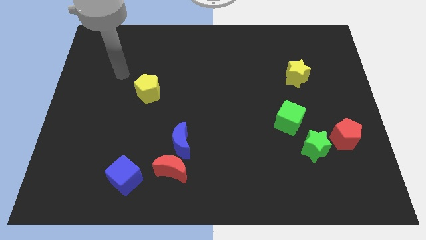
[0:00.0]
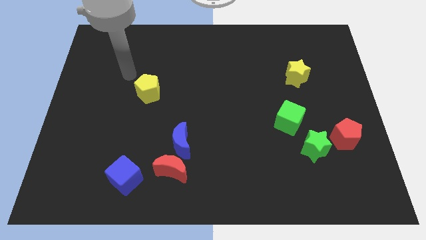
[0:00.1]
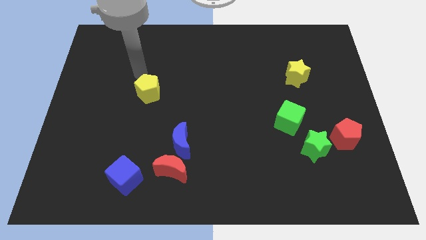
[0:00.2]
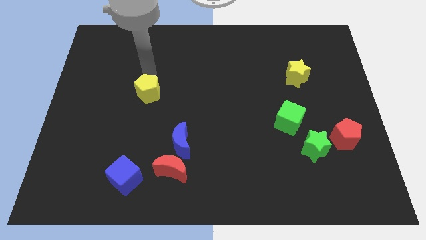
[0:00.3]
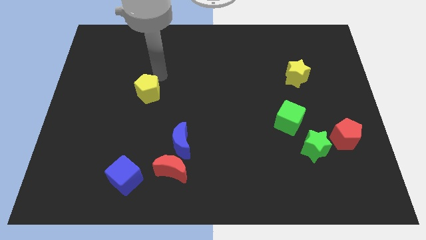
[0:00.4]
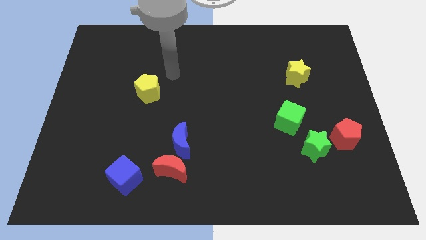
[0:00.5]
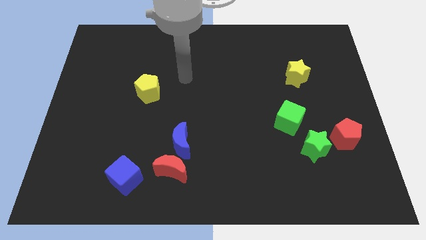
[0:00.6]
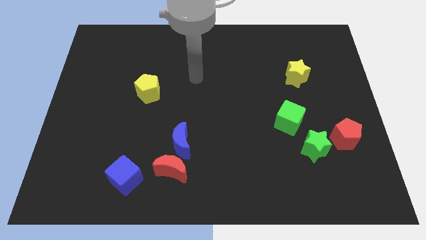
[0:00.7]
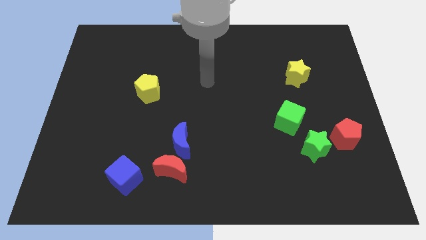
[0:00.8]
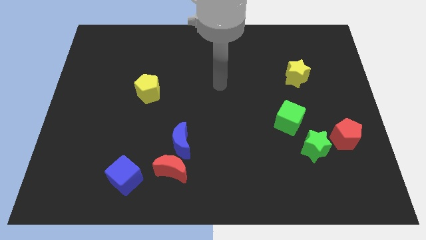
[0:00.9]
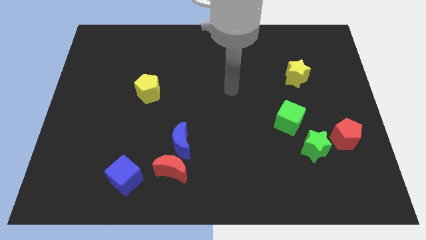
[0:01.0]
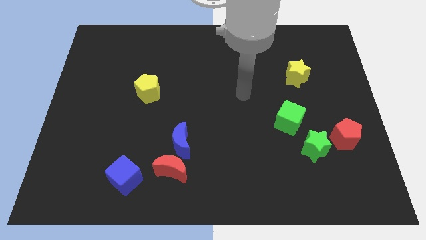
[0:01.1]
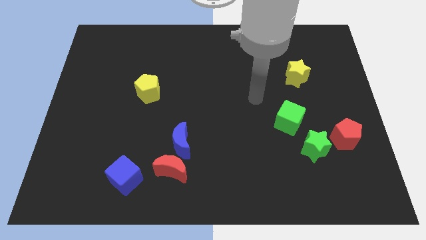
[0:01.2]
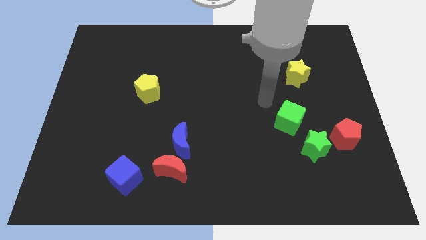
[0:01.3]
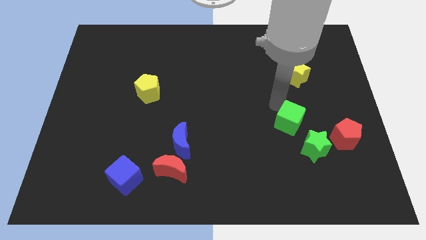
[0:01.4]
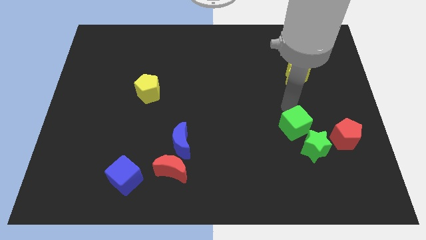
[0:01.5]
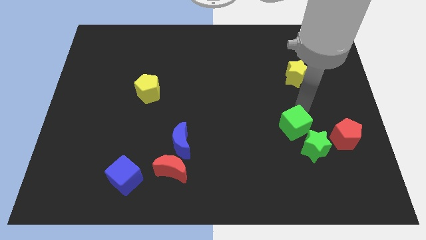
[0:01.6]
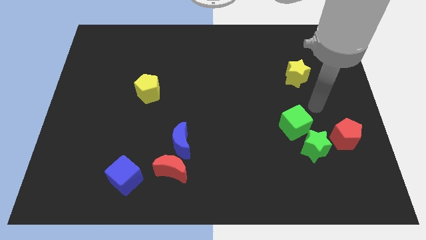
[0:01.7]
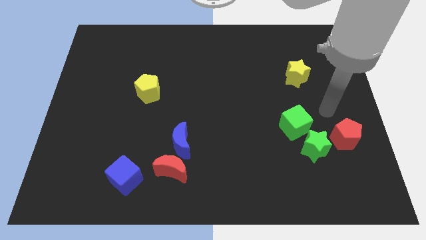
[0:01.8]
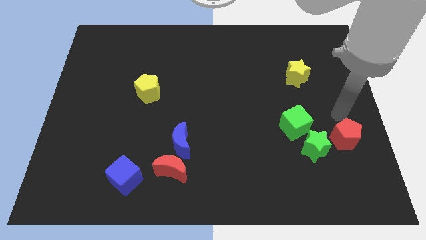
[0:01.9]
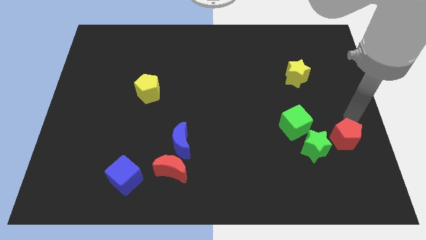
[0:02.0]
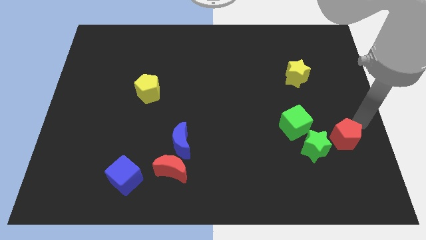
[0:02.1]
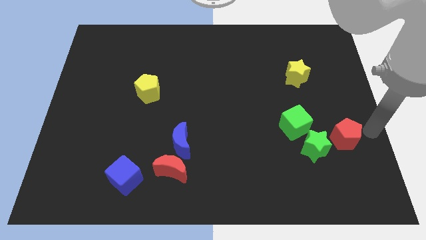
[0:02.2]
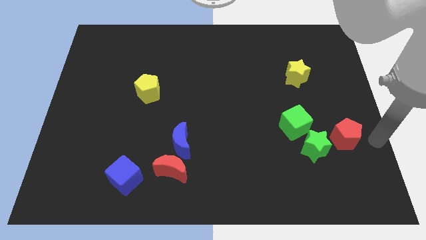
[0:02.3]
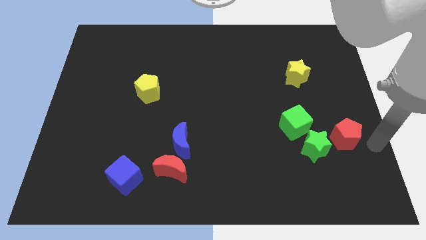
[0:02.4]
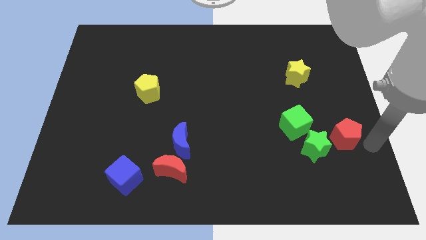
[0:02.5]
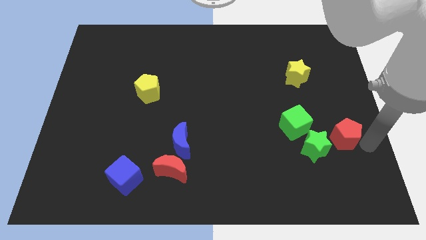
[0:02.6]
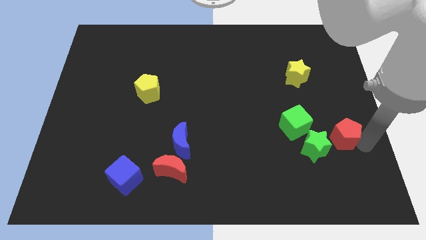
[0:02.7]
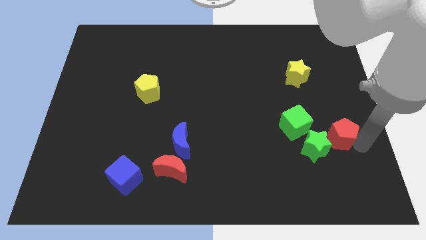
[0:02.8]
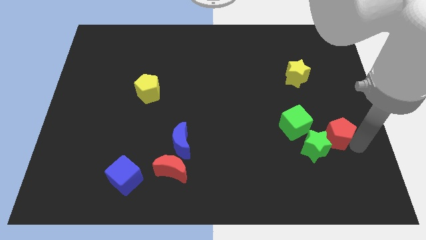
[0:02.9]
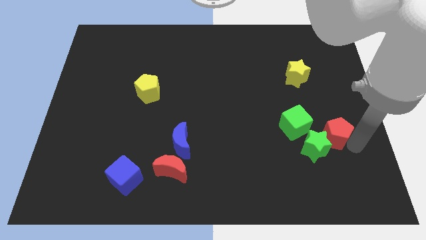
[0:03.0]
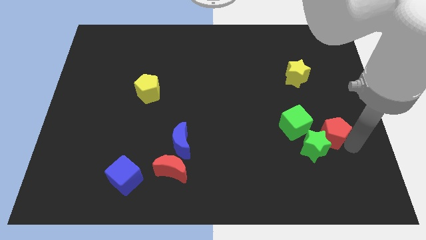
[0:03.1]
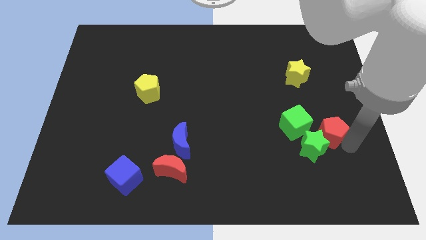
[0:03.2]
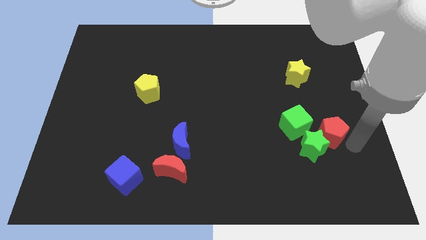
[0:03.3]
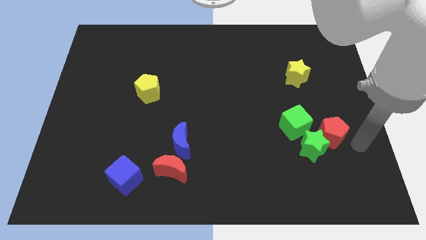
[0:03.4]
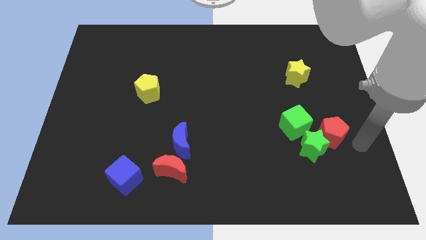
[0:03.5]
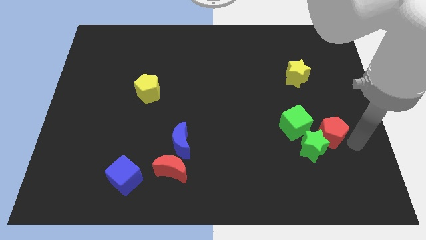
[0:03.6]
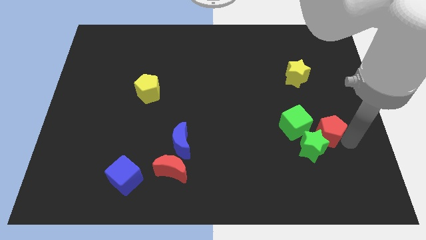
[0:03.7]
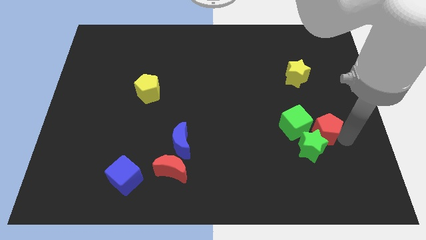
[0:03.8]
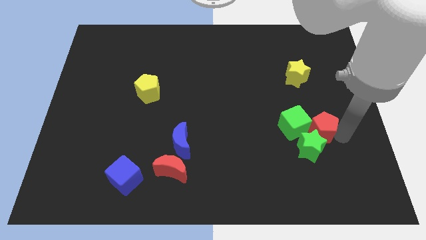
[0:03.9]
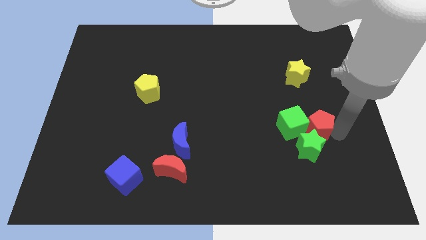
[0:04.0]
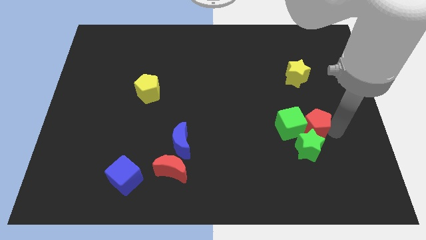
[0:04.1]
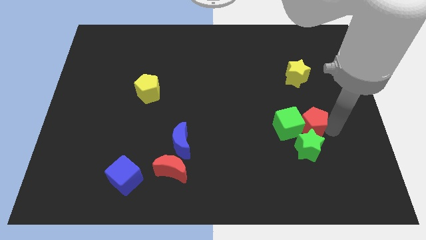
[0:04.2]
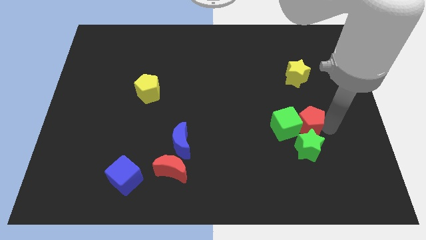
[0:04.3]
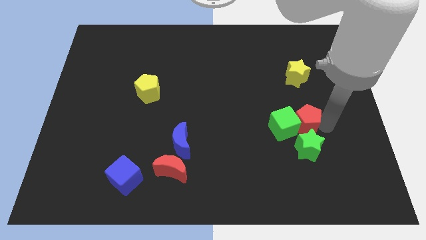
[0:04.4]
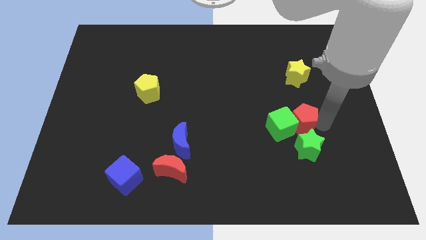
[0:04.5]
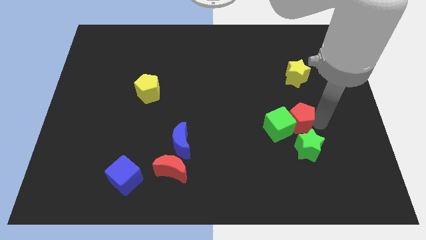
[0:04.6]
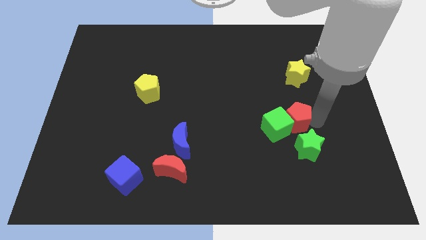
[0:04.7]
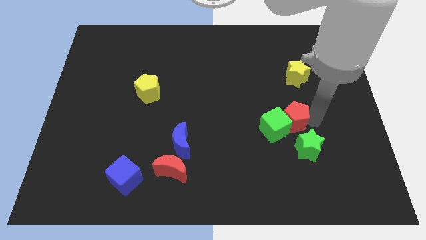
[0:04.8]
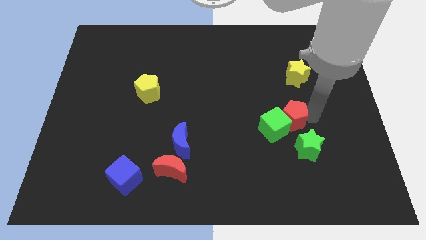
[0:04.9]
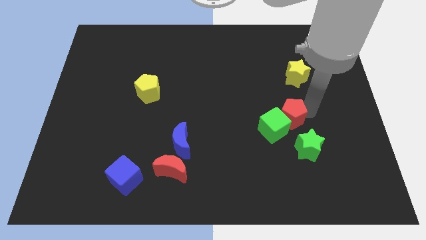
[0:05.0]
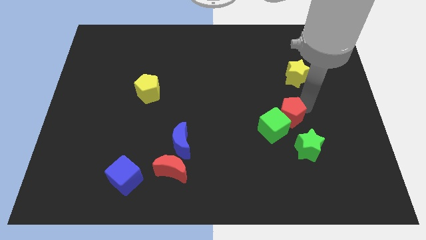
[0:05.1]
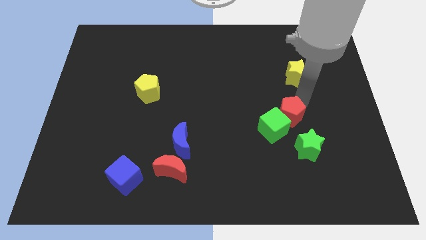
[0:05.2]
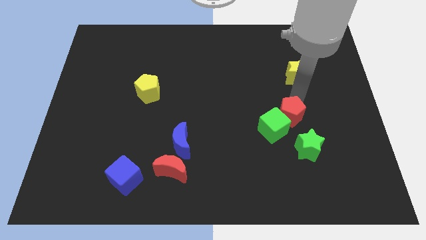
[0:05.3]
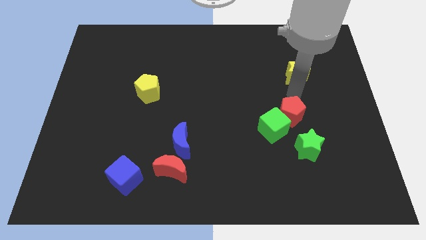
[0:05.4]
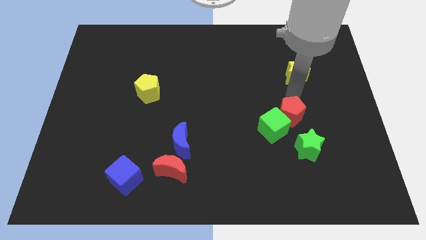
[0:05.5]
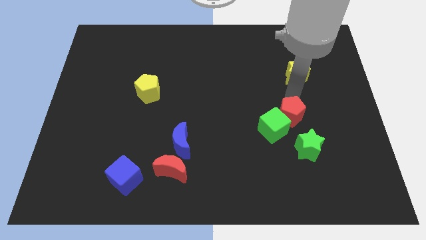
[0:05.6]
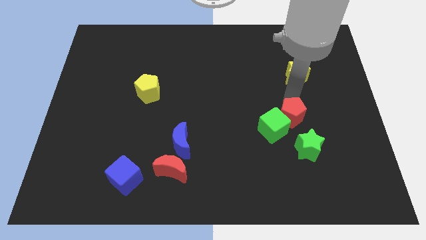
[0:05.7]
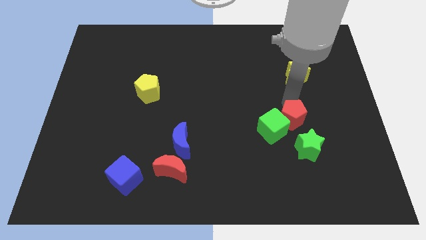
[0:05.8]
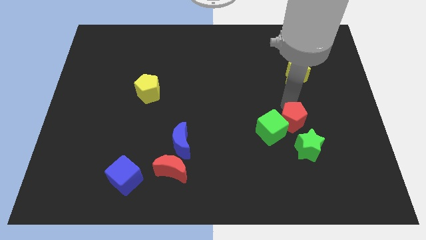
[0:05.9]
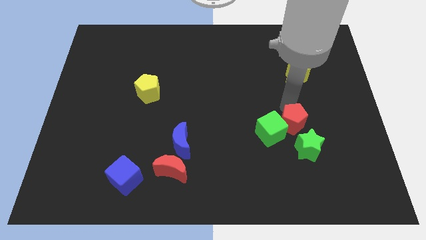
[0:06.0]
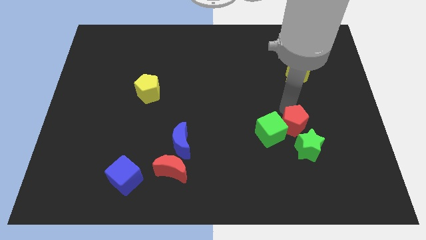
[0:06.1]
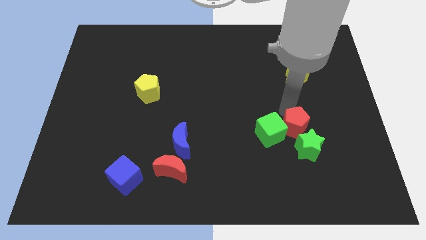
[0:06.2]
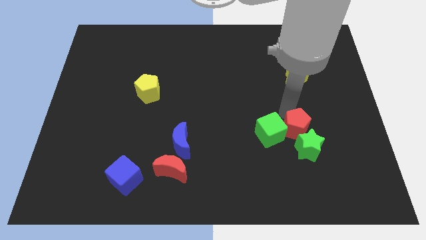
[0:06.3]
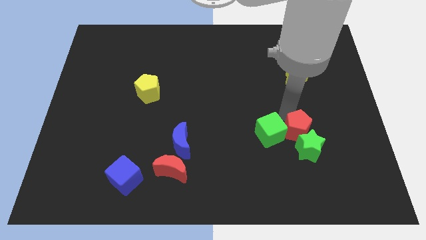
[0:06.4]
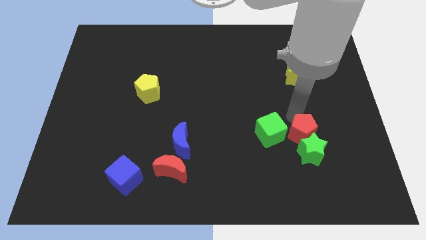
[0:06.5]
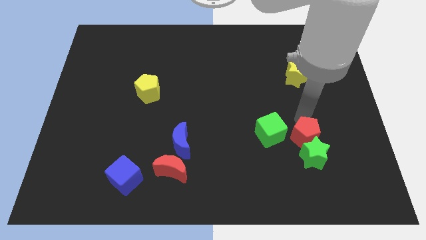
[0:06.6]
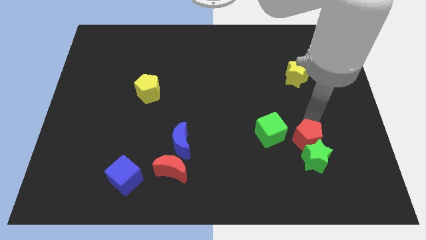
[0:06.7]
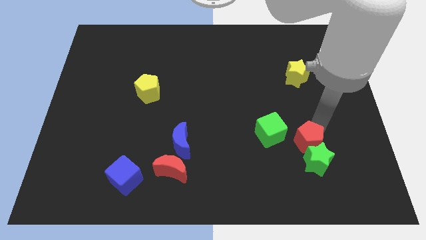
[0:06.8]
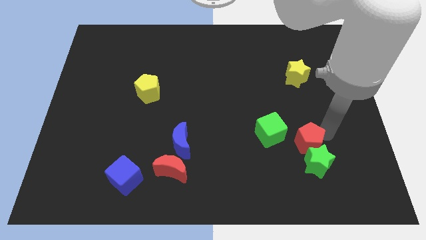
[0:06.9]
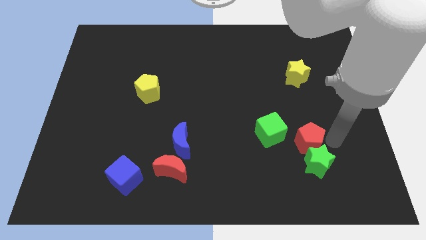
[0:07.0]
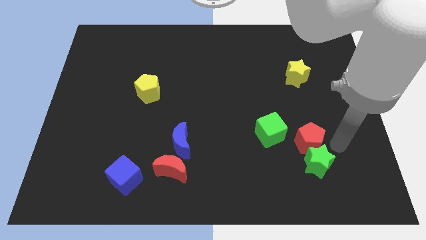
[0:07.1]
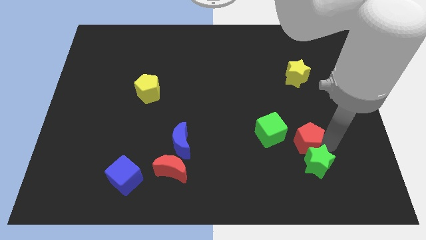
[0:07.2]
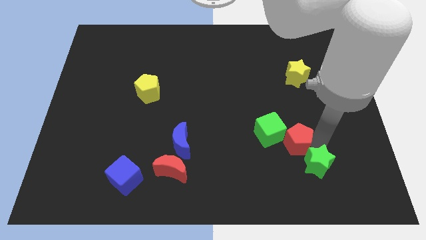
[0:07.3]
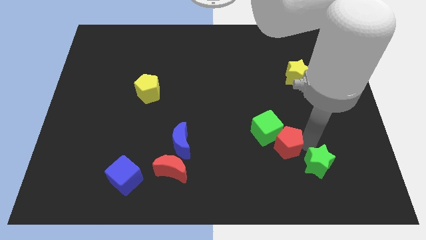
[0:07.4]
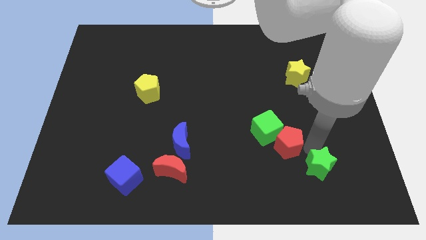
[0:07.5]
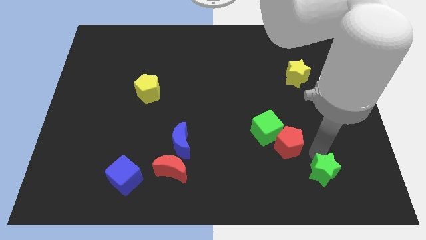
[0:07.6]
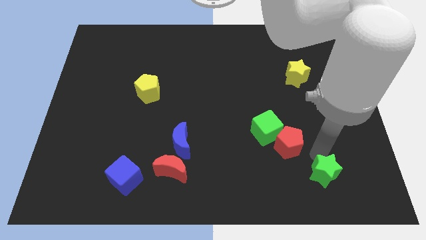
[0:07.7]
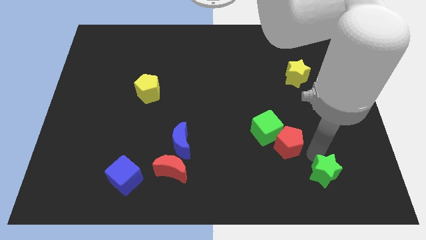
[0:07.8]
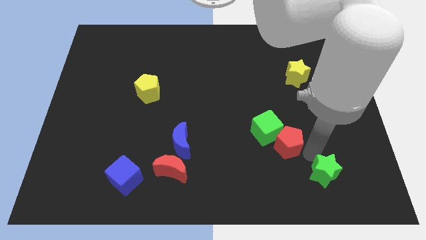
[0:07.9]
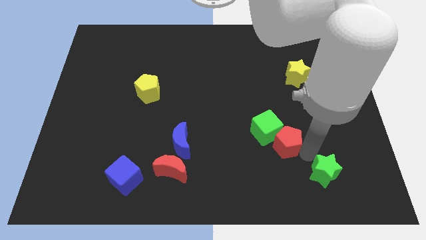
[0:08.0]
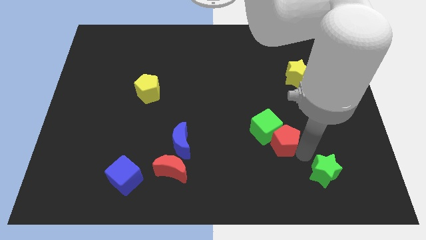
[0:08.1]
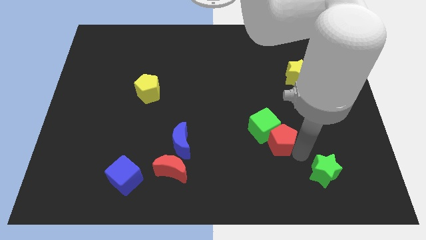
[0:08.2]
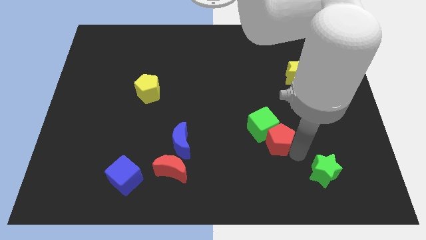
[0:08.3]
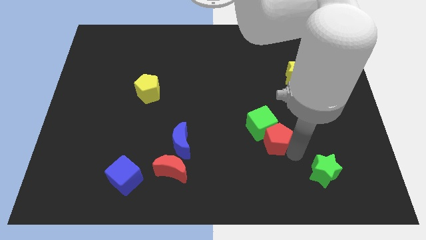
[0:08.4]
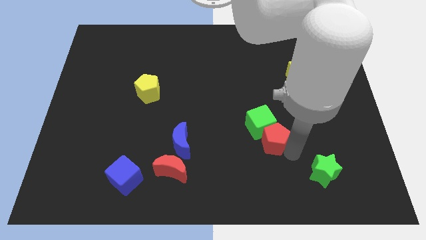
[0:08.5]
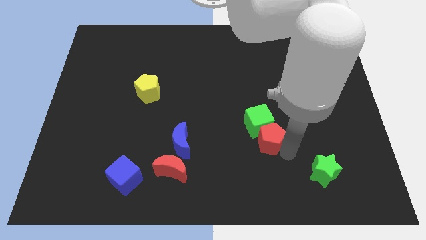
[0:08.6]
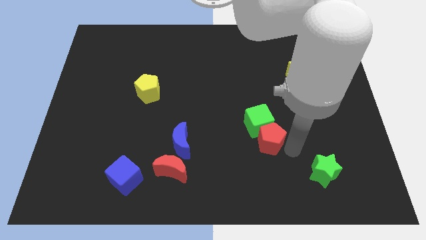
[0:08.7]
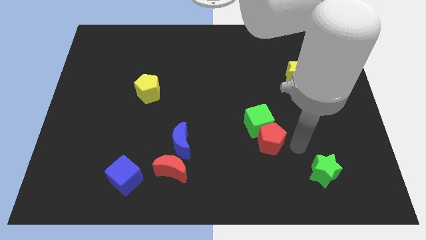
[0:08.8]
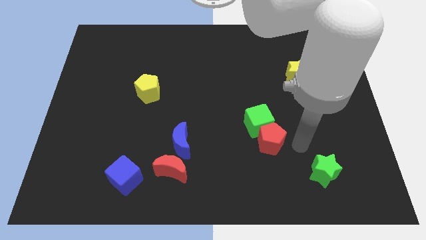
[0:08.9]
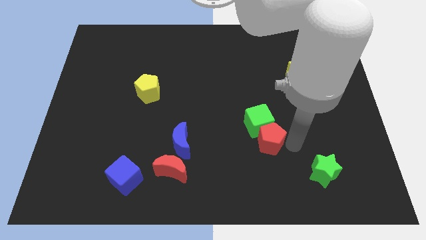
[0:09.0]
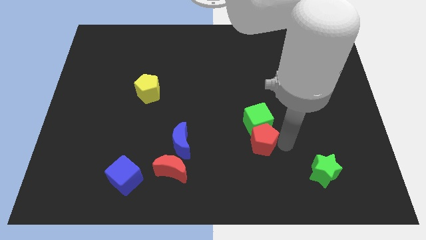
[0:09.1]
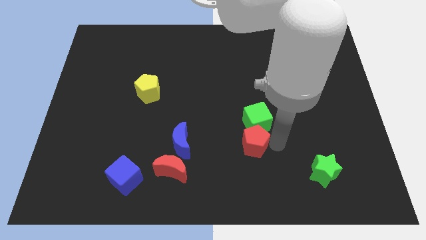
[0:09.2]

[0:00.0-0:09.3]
slide the red pentagon left
